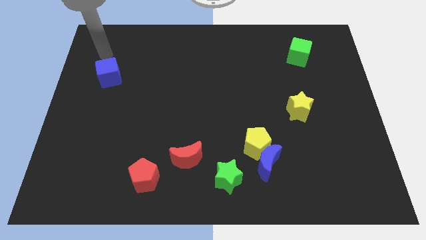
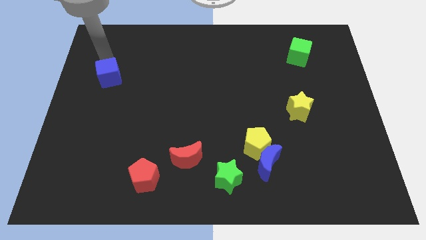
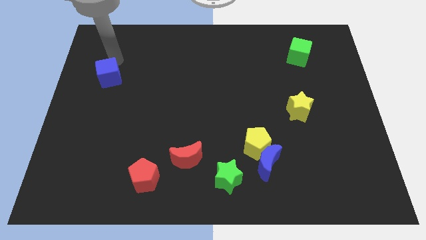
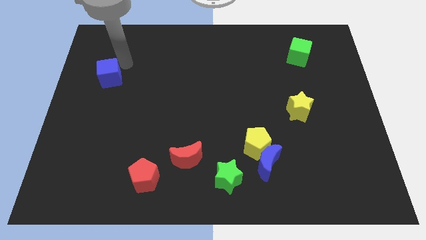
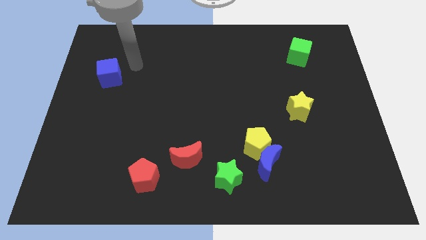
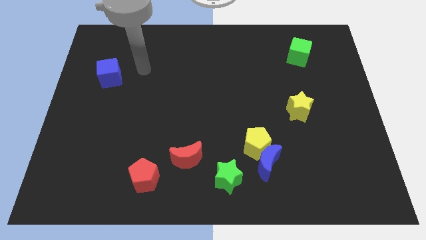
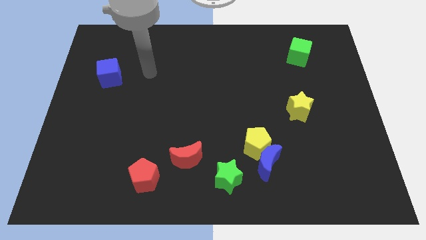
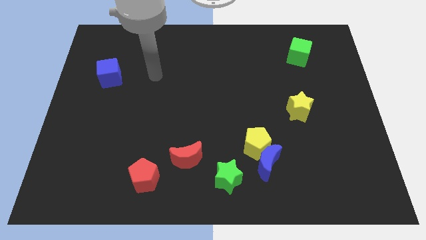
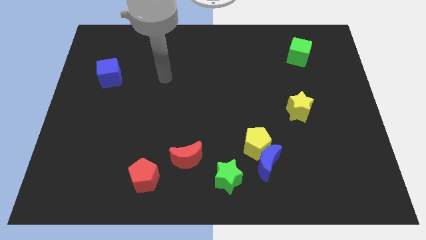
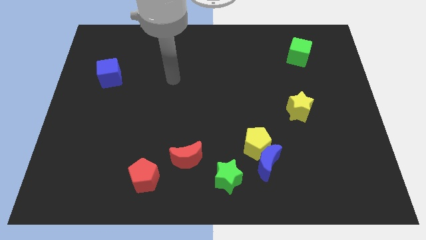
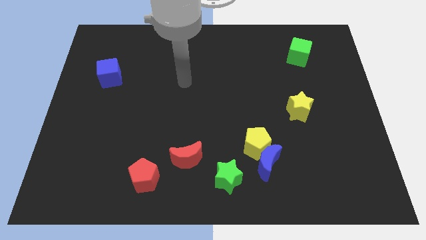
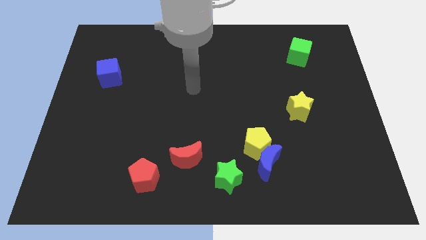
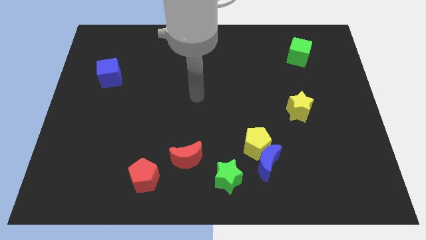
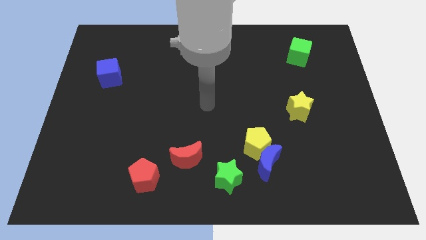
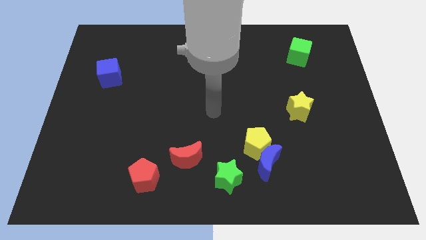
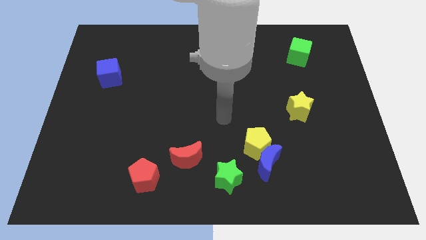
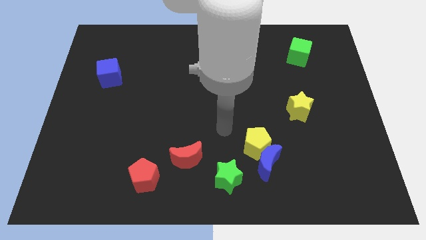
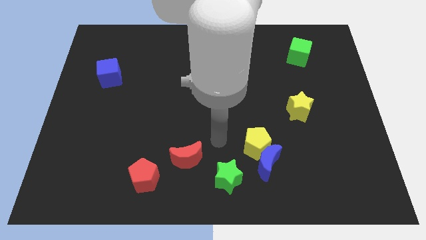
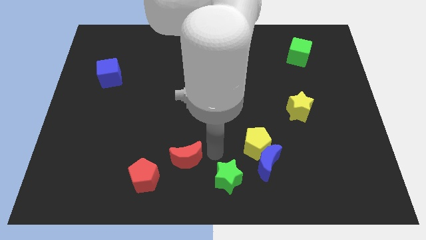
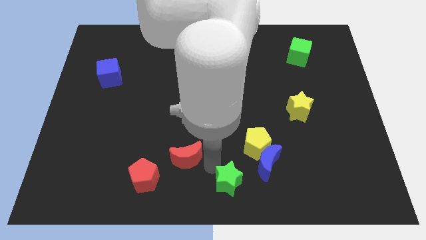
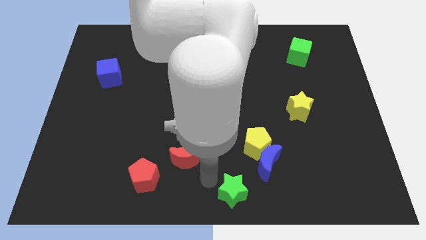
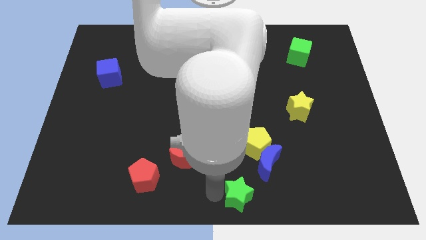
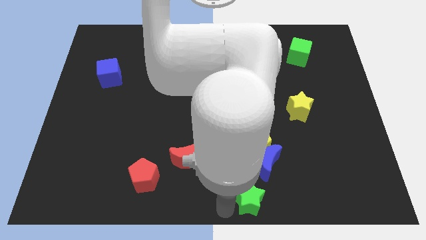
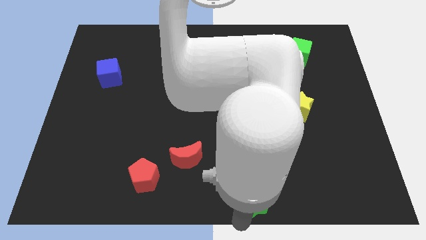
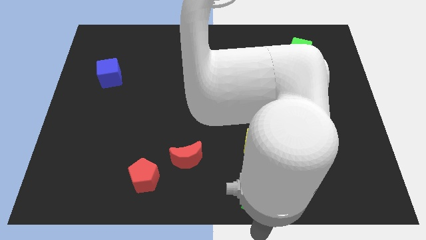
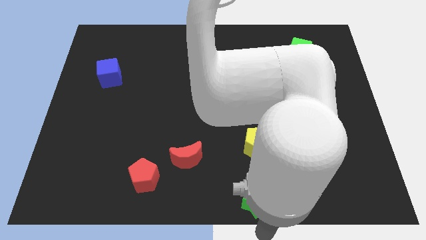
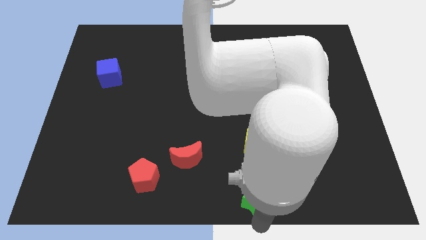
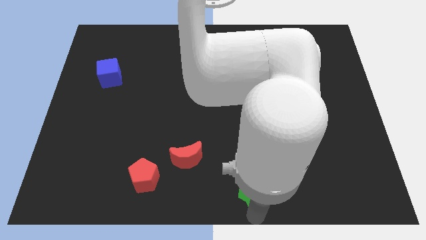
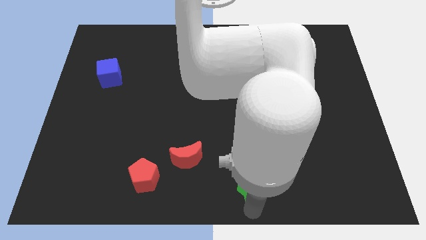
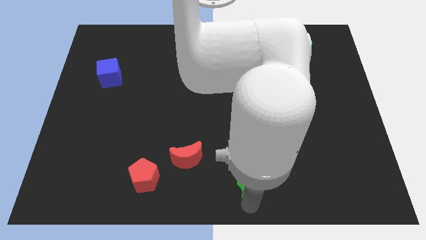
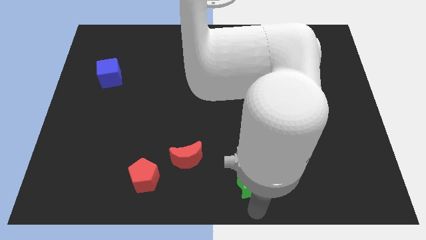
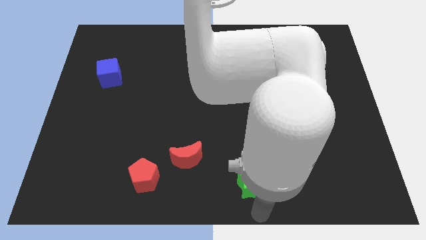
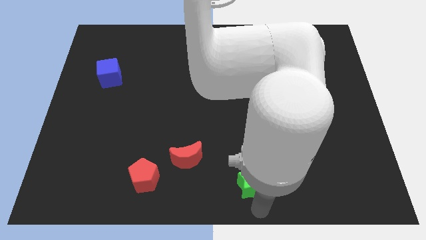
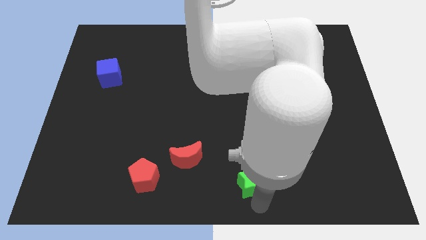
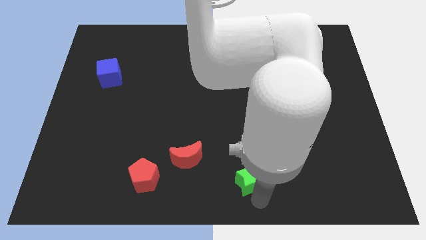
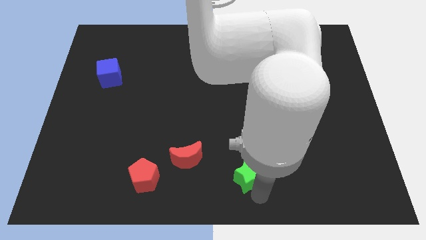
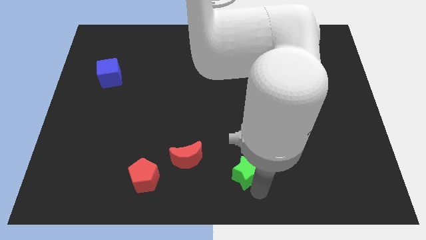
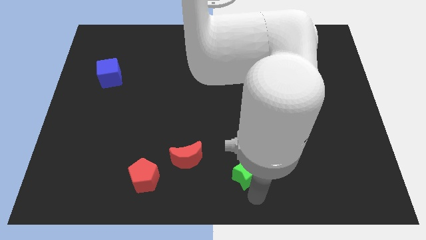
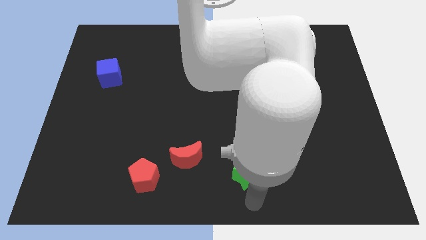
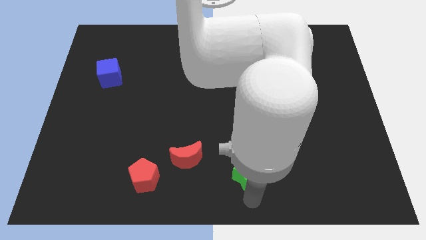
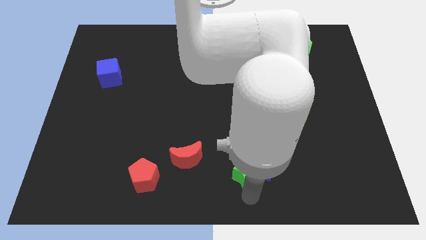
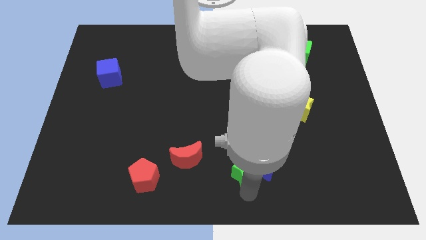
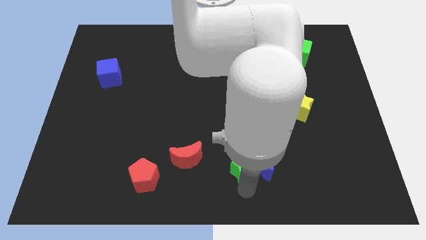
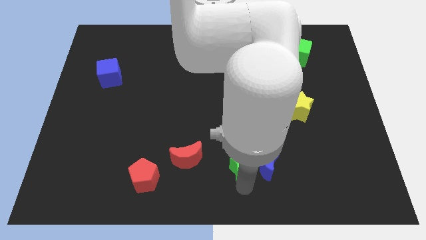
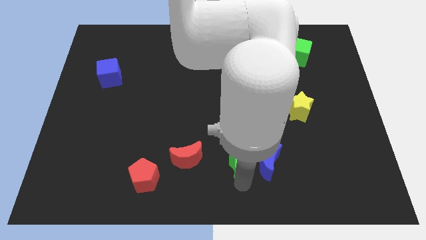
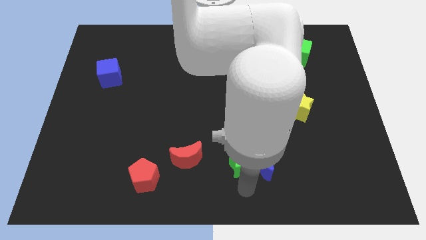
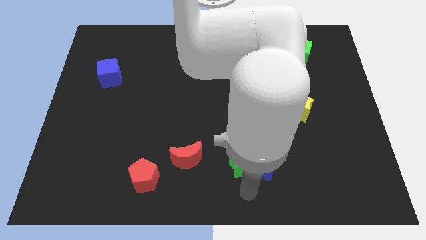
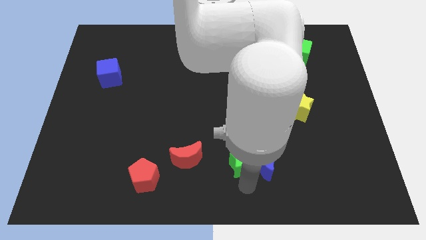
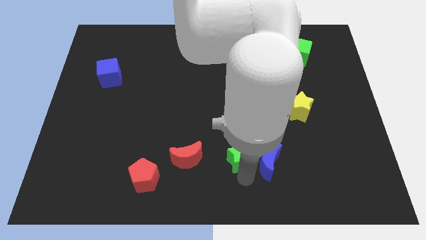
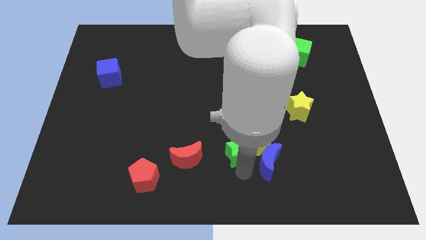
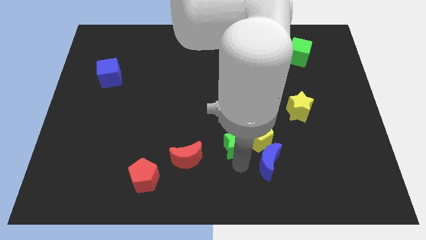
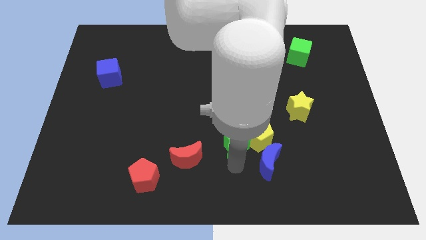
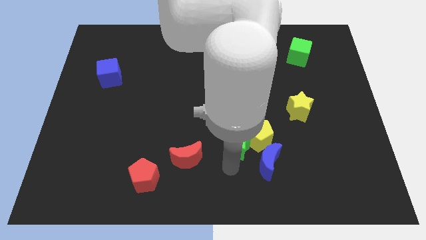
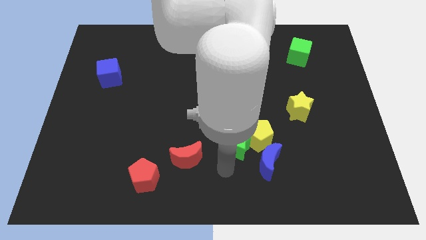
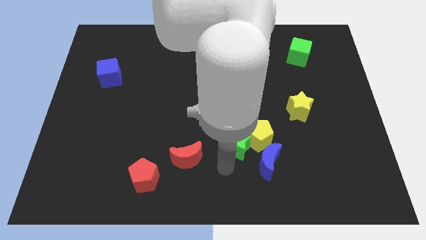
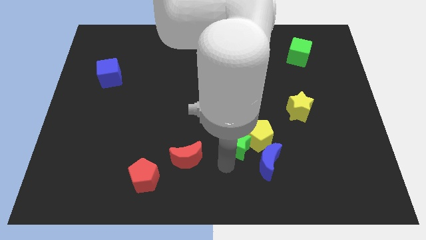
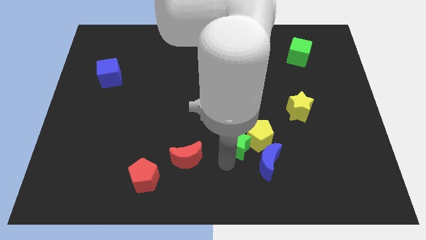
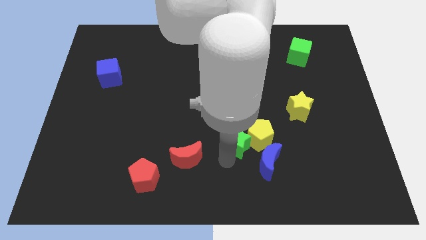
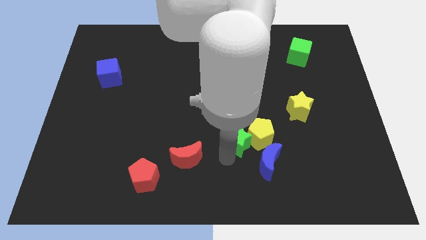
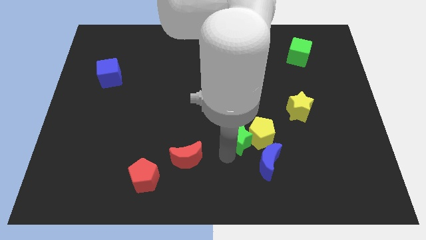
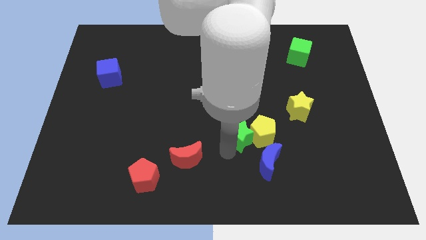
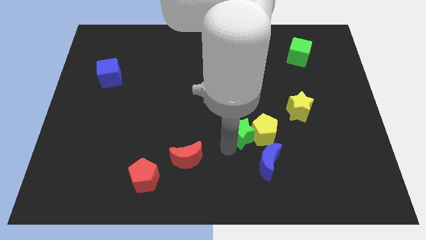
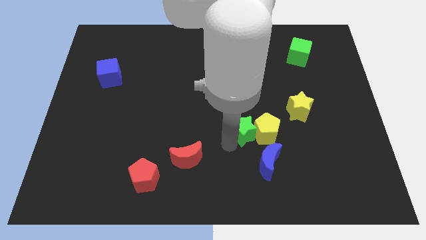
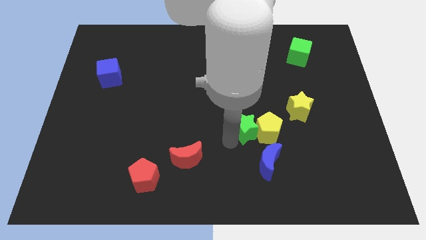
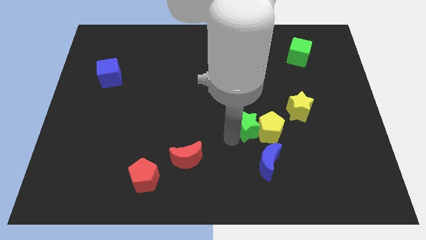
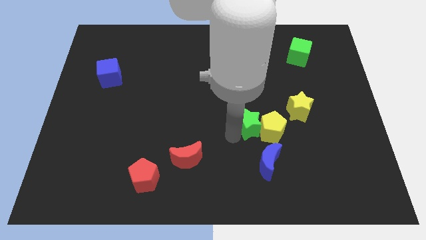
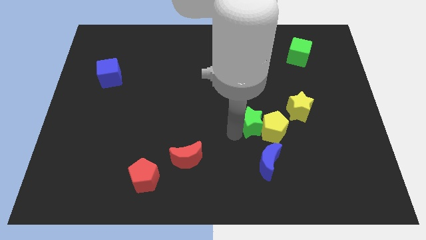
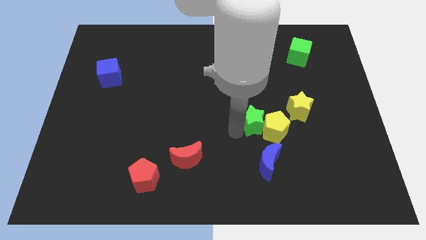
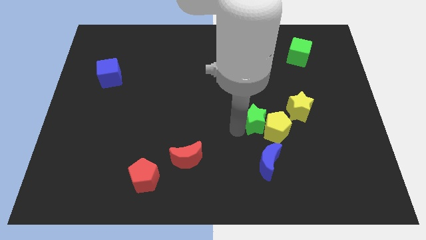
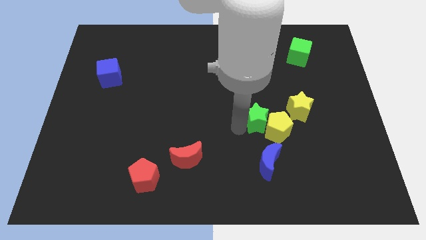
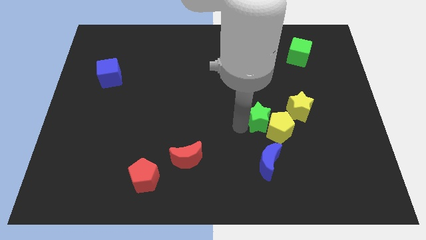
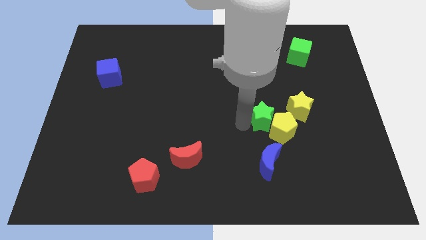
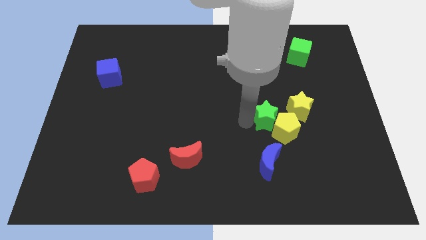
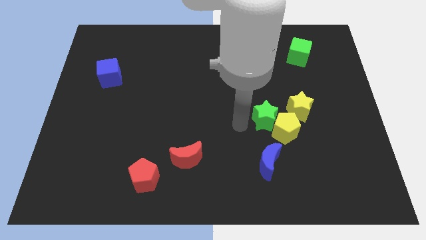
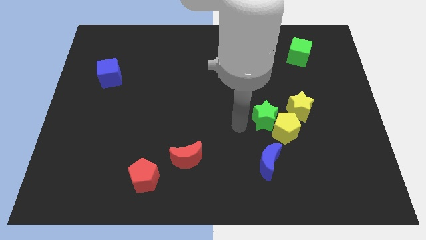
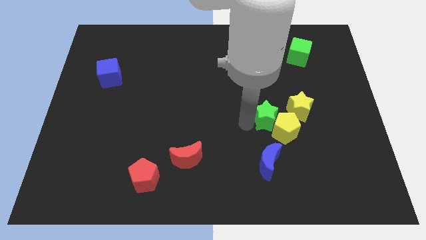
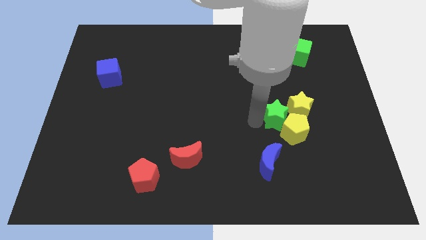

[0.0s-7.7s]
move the green star to the yellow star

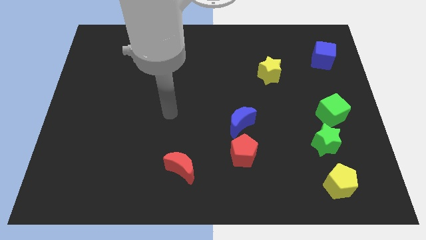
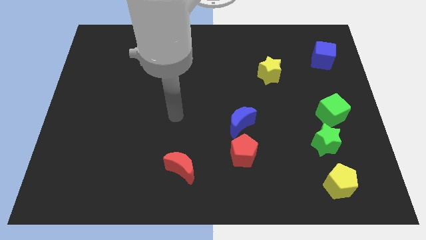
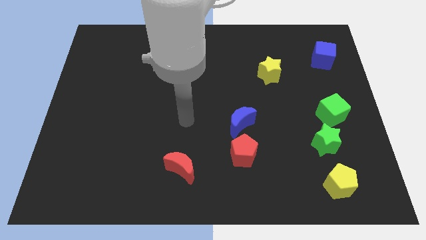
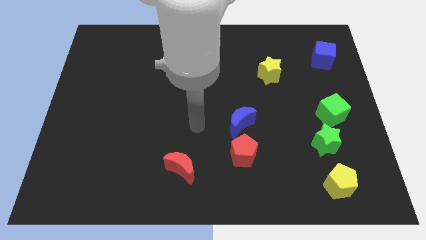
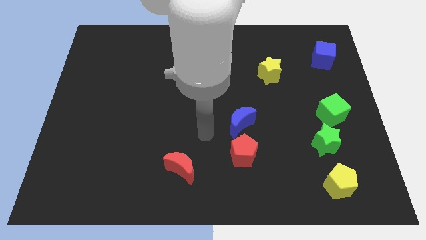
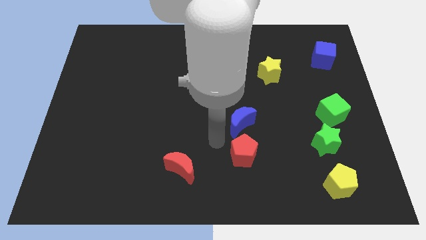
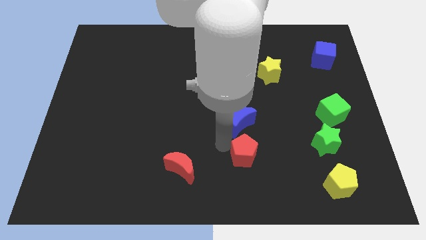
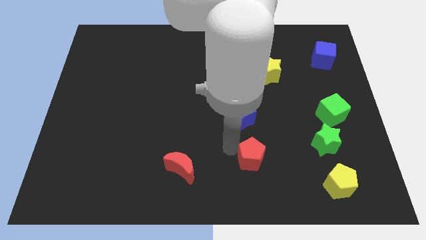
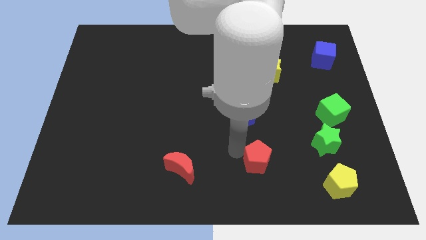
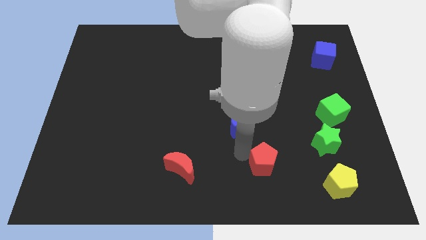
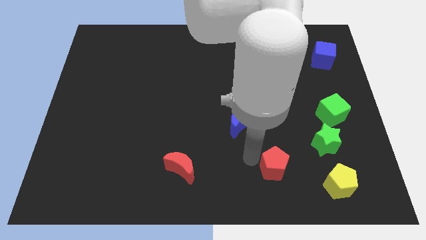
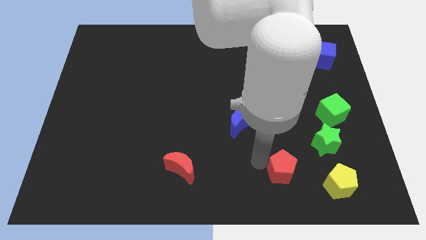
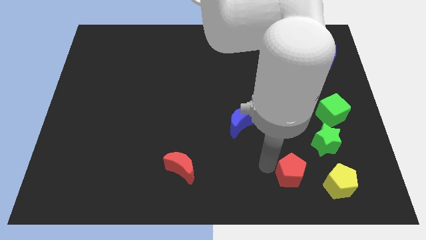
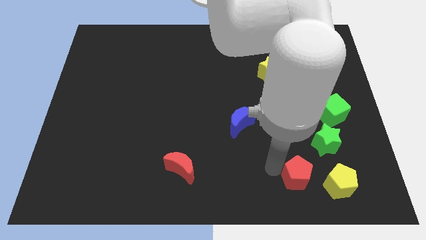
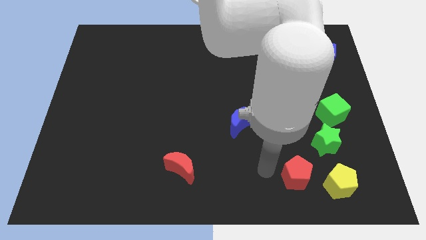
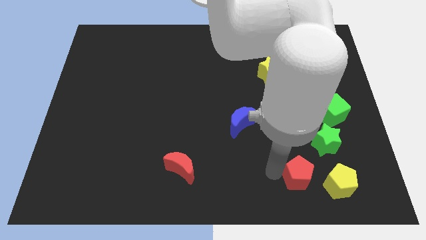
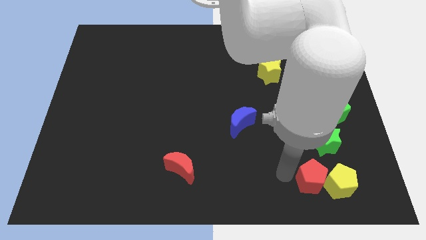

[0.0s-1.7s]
push the red pentagon towards the yellow pentagon
